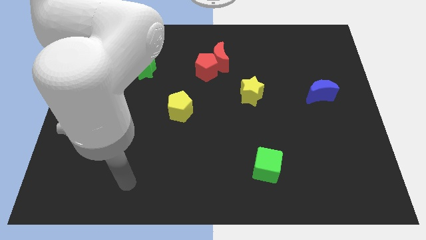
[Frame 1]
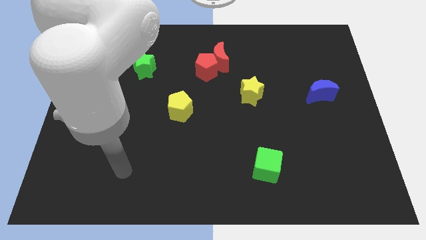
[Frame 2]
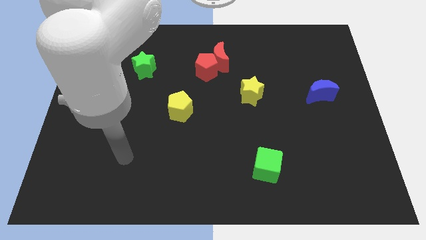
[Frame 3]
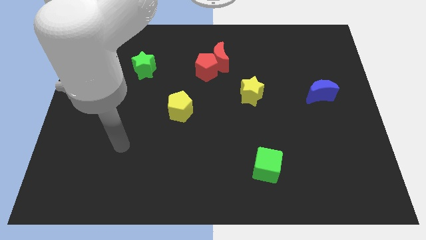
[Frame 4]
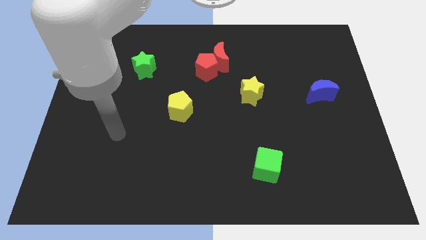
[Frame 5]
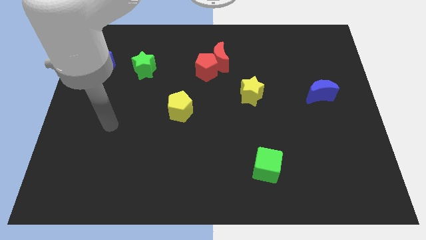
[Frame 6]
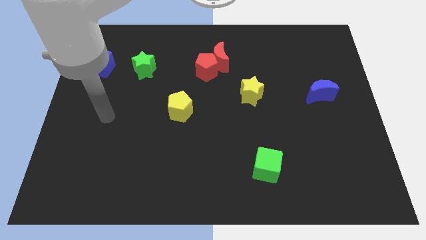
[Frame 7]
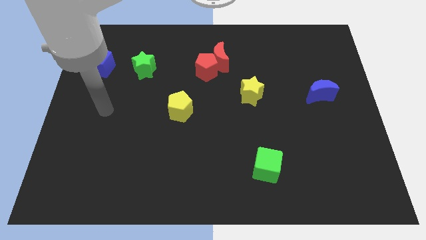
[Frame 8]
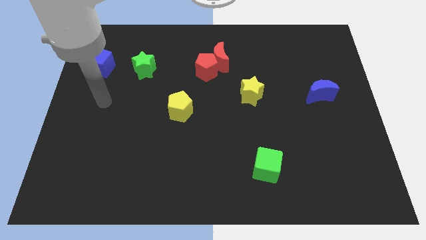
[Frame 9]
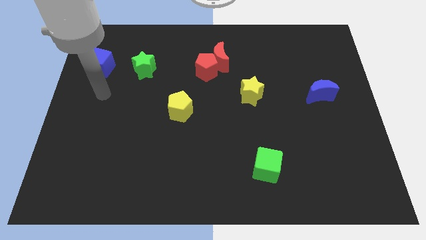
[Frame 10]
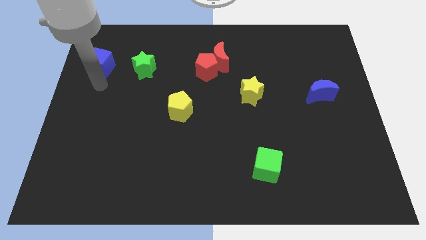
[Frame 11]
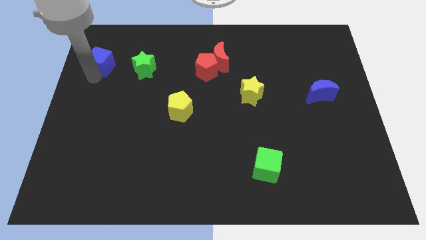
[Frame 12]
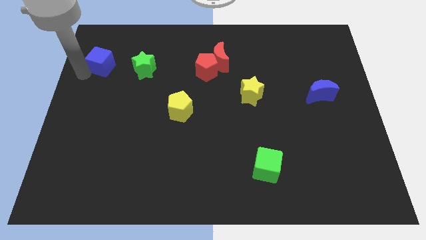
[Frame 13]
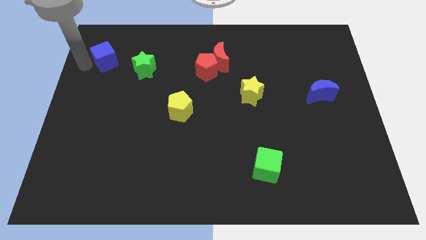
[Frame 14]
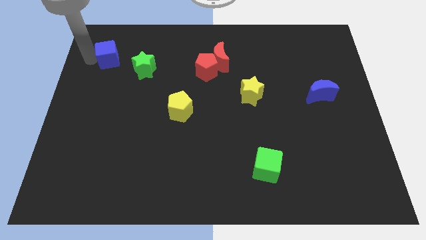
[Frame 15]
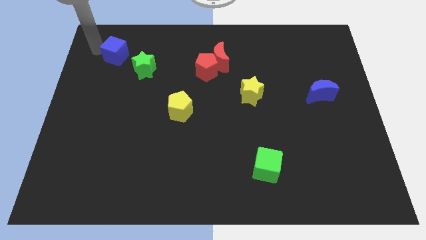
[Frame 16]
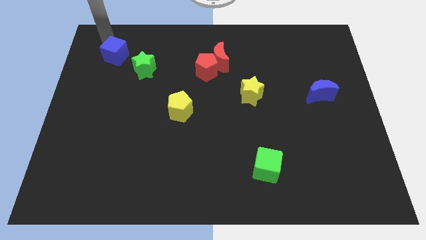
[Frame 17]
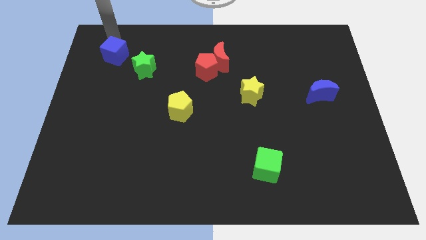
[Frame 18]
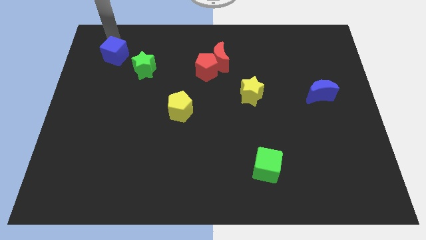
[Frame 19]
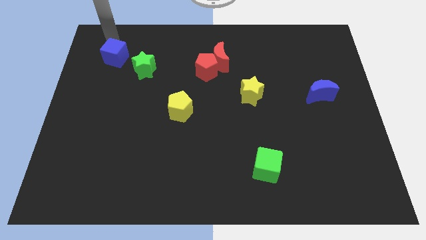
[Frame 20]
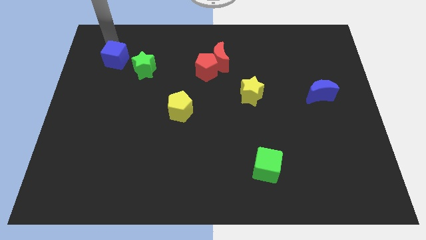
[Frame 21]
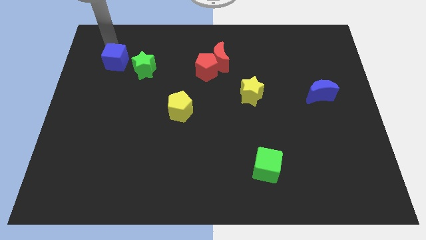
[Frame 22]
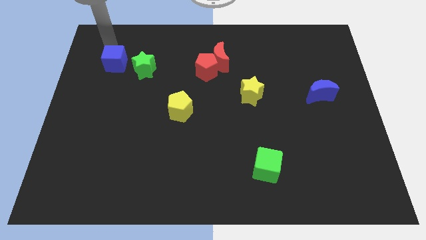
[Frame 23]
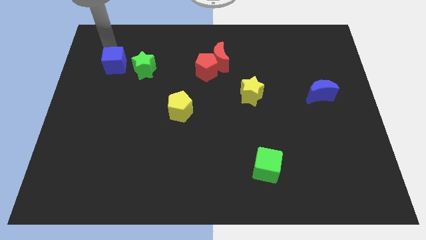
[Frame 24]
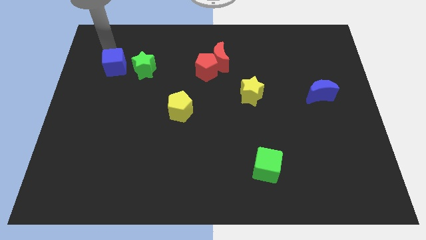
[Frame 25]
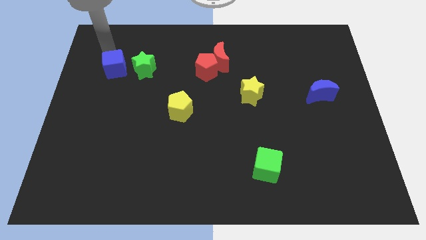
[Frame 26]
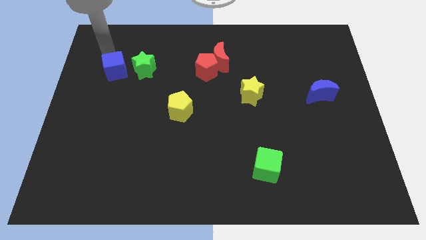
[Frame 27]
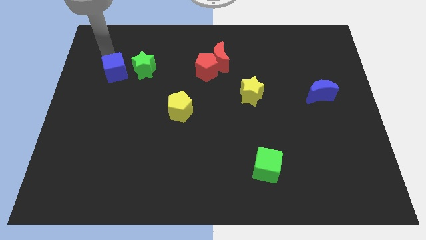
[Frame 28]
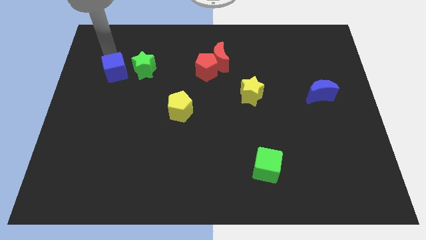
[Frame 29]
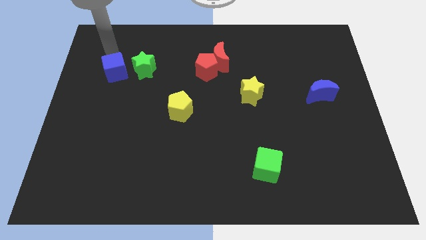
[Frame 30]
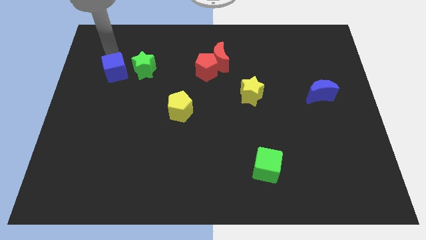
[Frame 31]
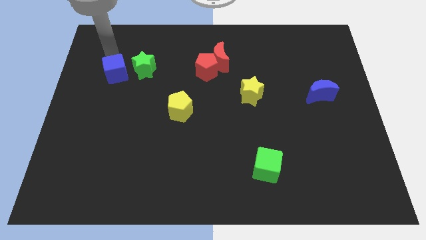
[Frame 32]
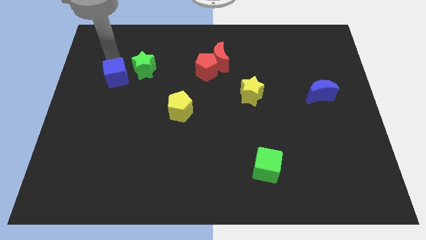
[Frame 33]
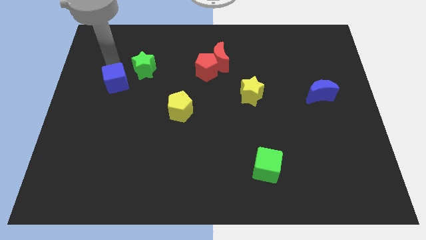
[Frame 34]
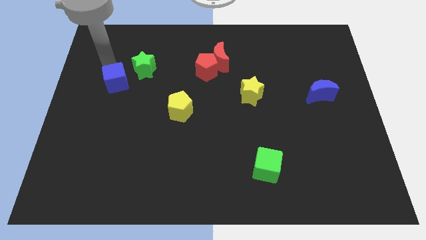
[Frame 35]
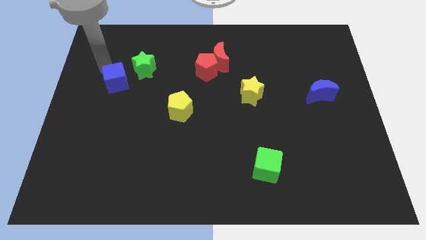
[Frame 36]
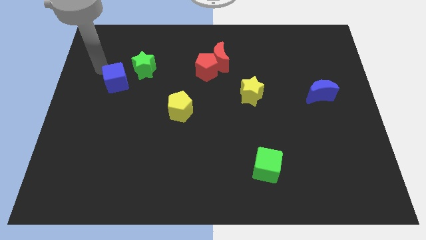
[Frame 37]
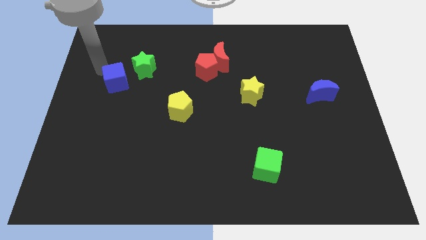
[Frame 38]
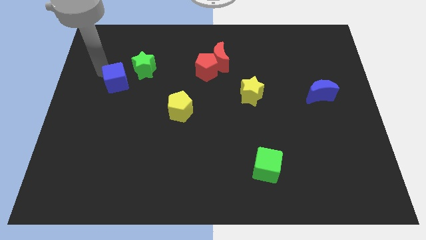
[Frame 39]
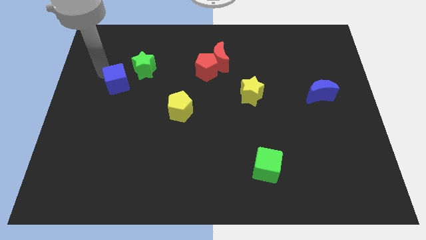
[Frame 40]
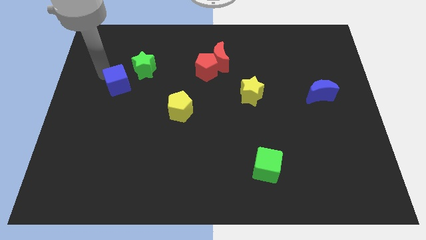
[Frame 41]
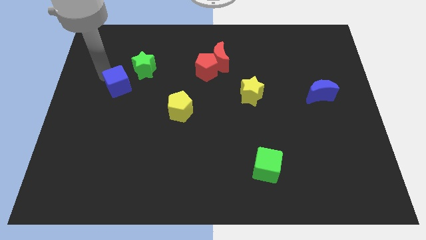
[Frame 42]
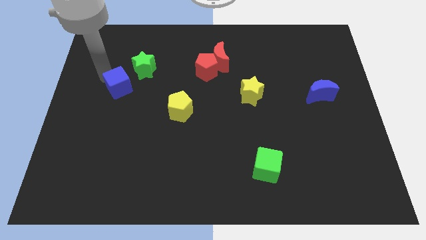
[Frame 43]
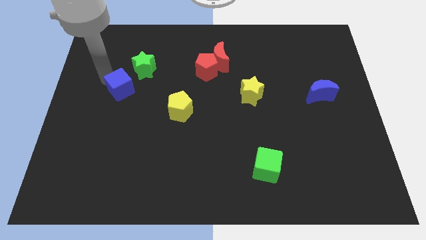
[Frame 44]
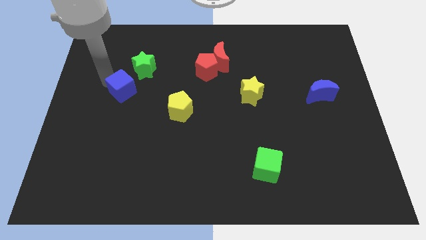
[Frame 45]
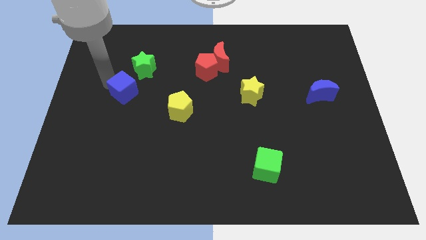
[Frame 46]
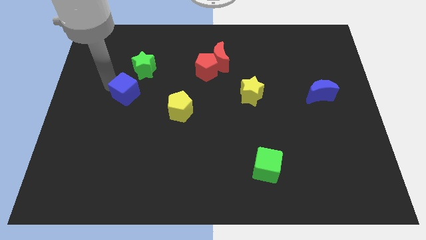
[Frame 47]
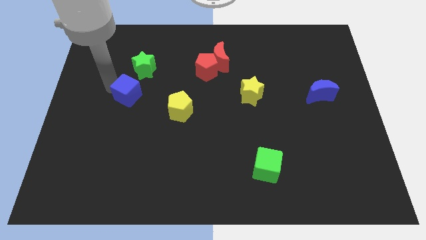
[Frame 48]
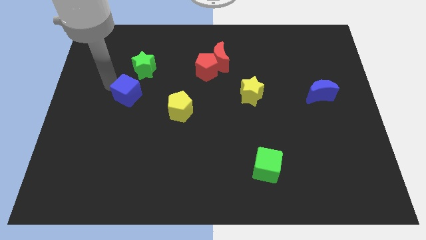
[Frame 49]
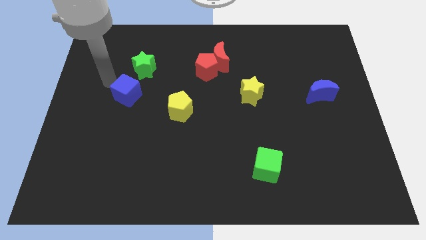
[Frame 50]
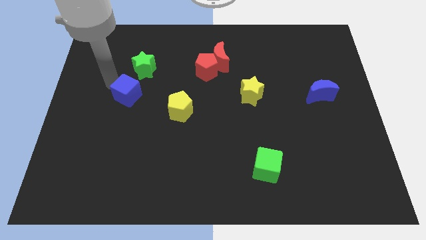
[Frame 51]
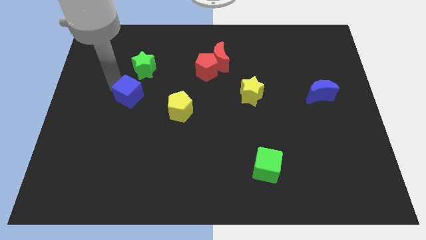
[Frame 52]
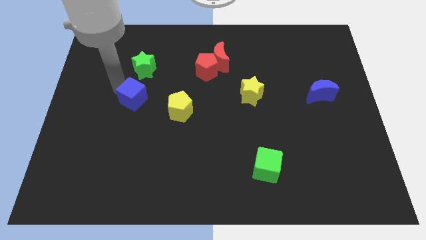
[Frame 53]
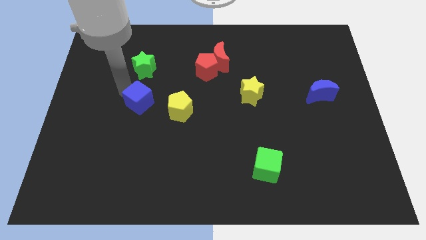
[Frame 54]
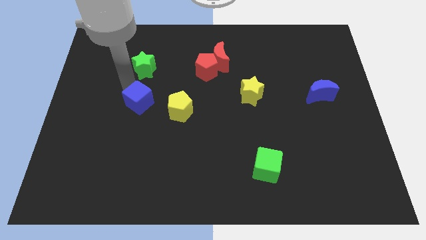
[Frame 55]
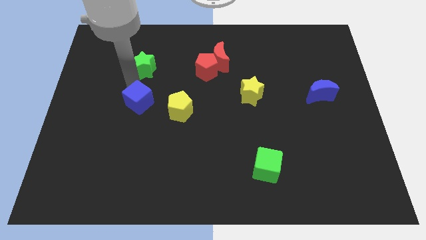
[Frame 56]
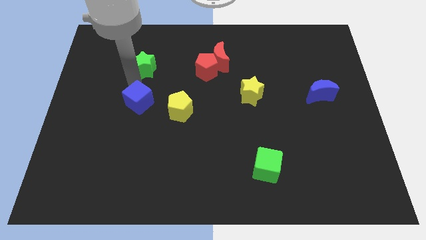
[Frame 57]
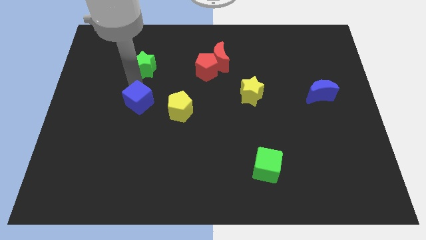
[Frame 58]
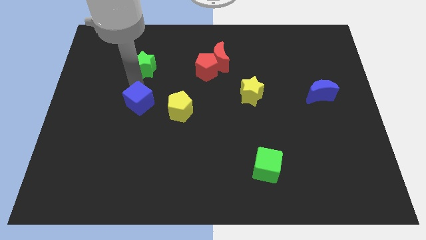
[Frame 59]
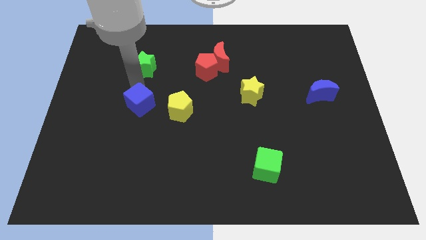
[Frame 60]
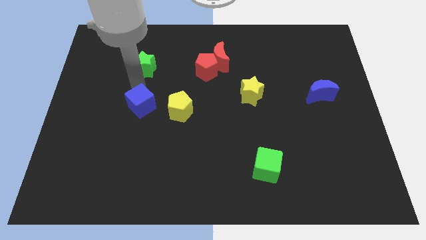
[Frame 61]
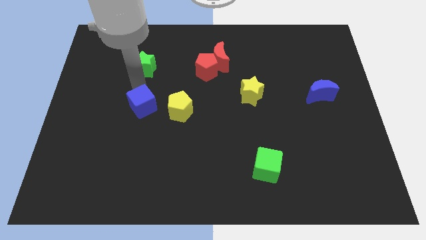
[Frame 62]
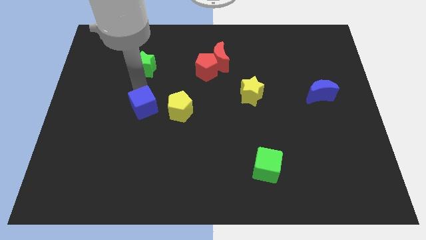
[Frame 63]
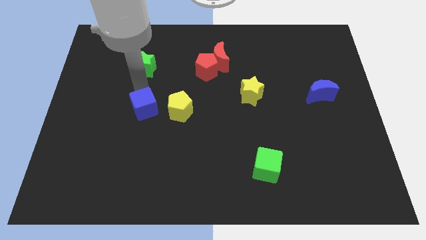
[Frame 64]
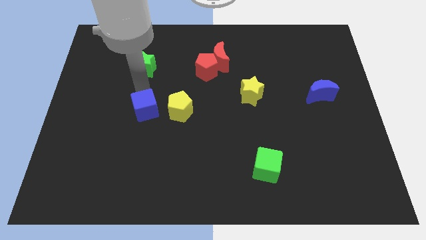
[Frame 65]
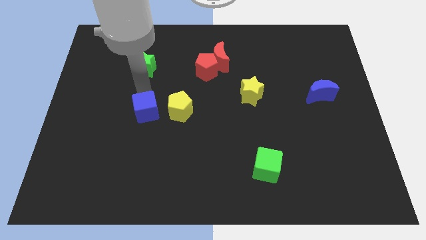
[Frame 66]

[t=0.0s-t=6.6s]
push the blue cube downwards and right

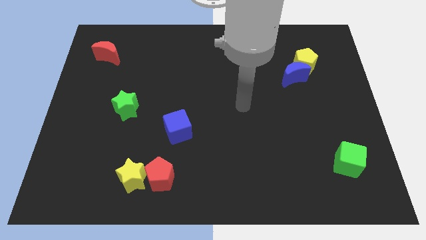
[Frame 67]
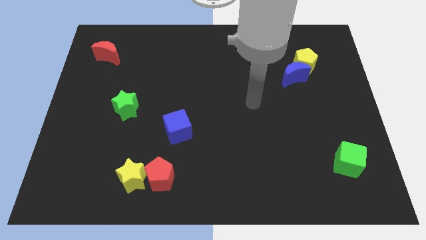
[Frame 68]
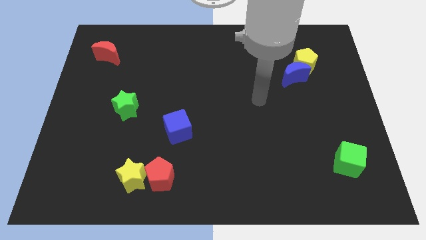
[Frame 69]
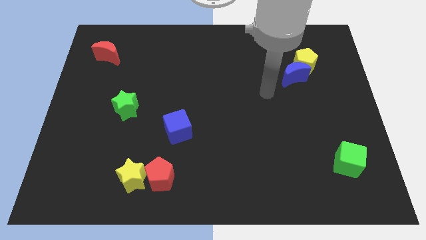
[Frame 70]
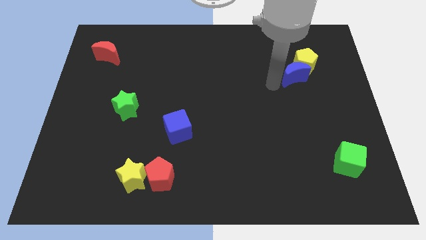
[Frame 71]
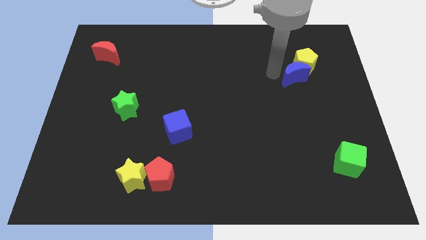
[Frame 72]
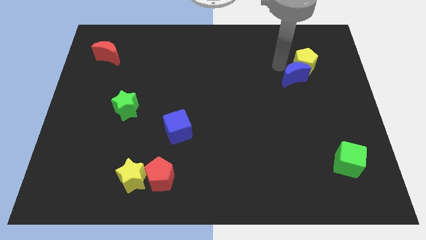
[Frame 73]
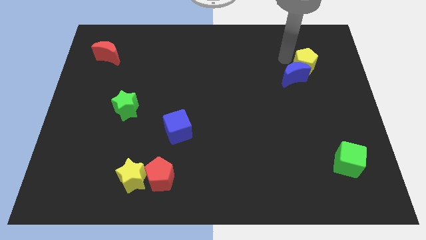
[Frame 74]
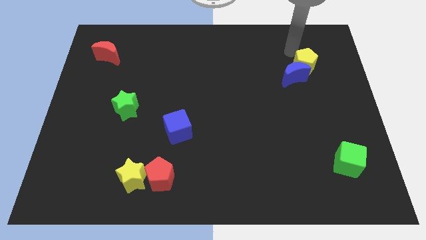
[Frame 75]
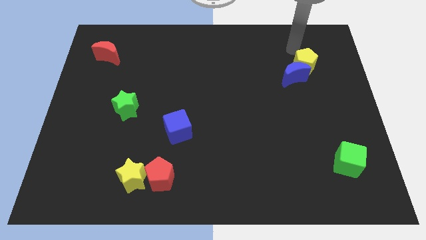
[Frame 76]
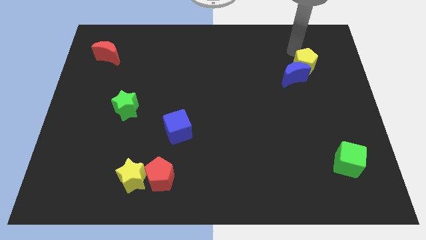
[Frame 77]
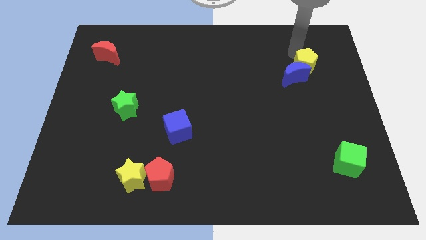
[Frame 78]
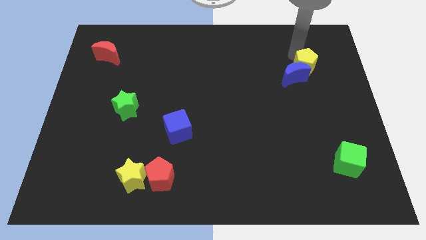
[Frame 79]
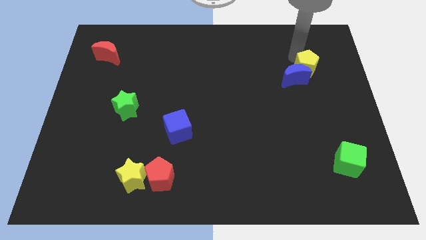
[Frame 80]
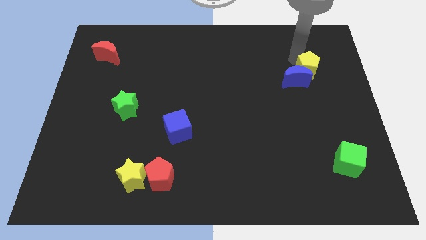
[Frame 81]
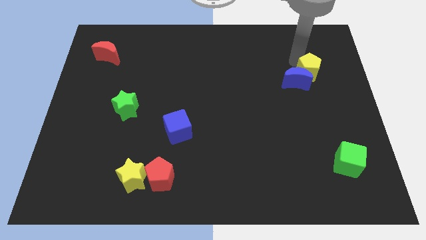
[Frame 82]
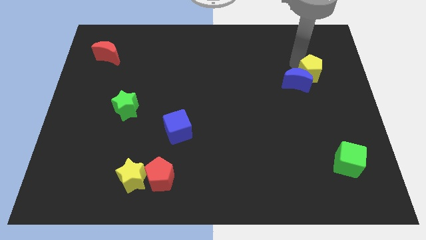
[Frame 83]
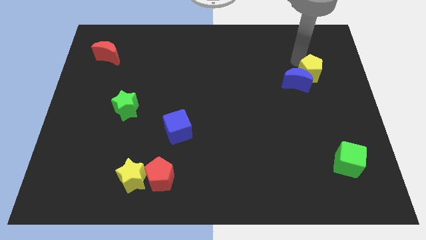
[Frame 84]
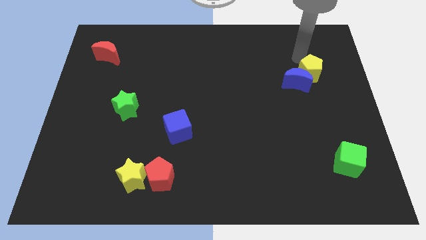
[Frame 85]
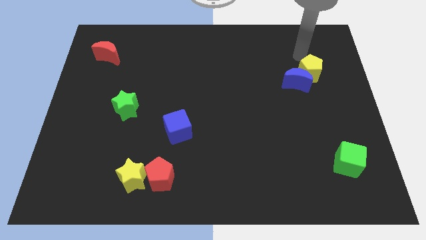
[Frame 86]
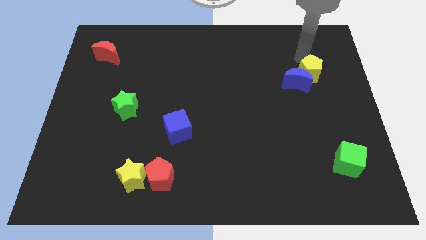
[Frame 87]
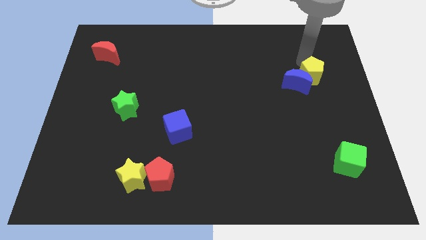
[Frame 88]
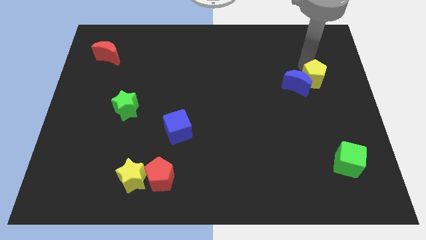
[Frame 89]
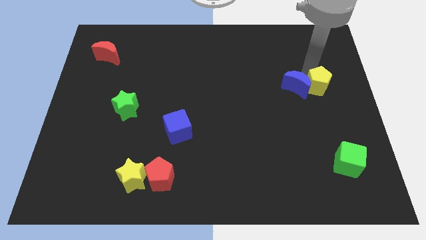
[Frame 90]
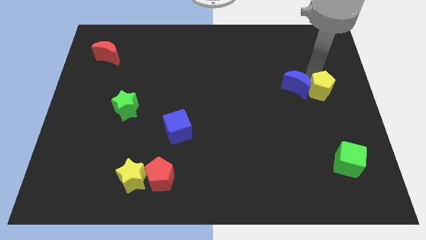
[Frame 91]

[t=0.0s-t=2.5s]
move the yellow pentagon downwards a little bit
